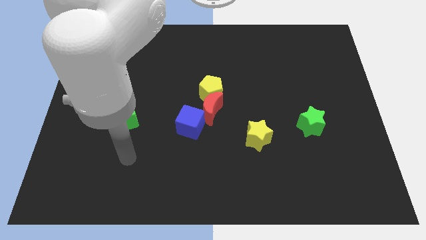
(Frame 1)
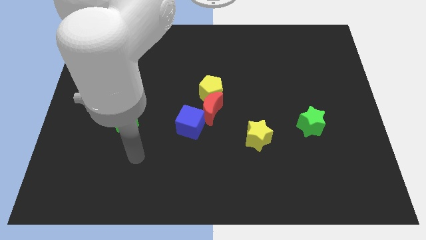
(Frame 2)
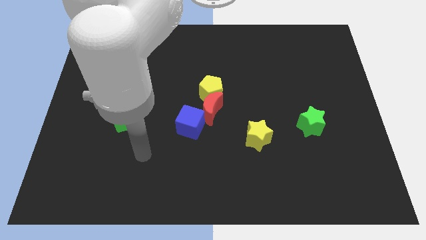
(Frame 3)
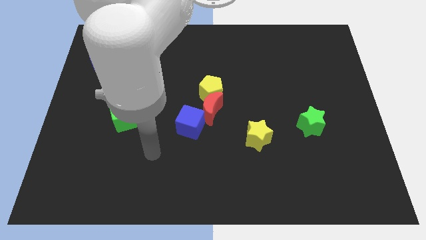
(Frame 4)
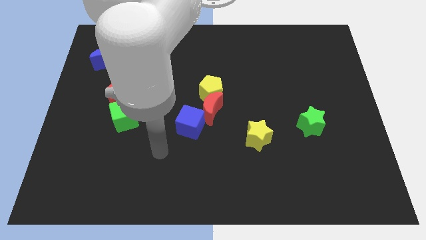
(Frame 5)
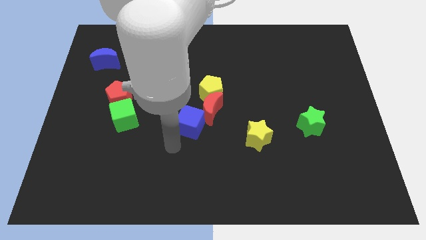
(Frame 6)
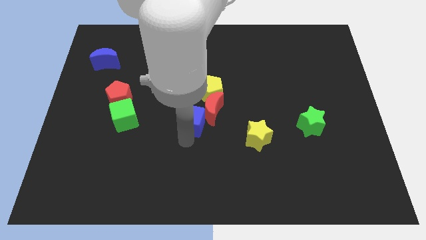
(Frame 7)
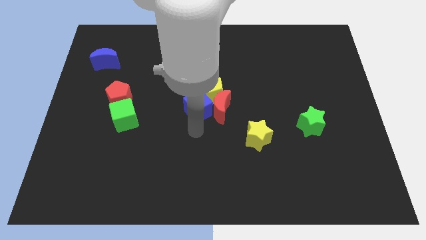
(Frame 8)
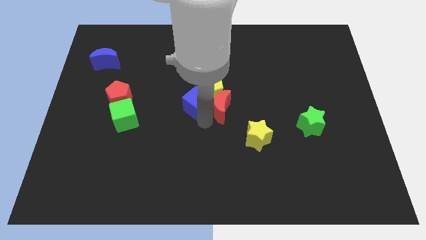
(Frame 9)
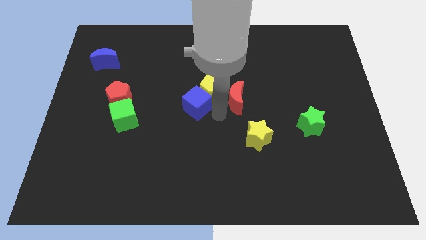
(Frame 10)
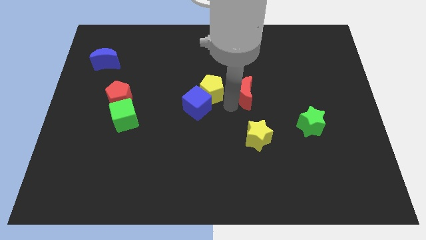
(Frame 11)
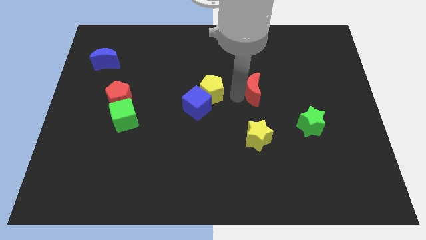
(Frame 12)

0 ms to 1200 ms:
separate the yellow pentagon from the red moon

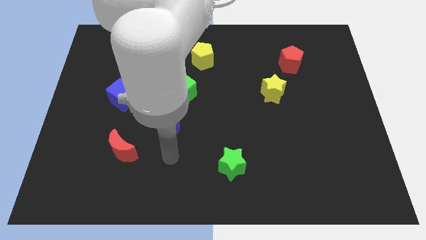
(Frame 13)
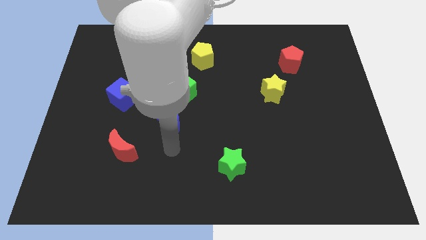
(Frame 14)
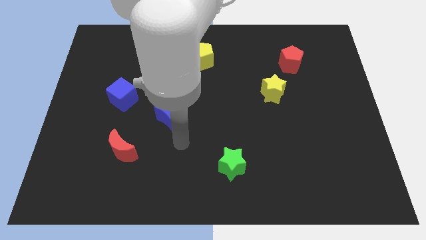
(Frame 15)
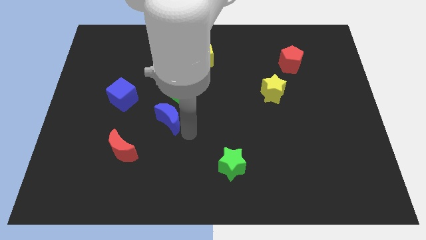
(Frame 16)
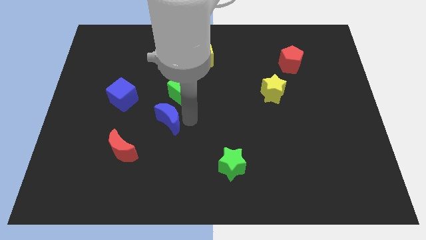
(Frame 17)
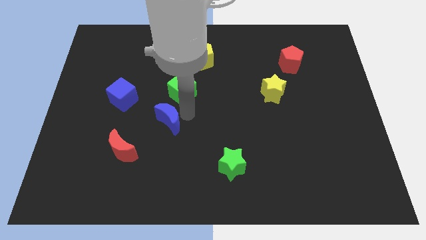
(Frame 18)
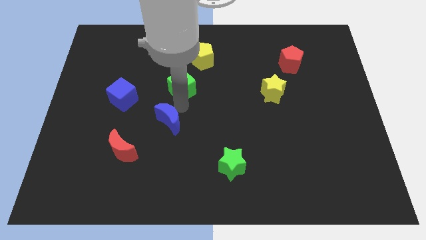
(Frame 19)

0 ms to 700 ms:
move the blue moon away from the green cube

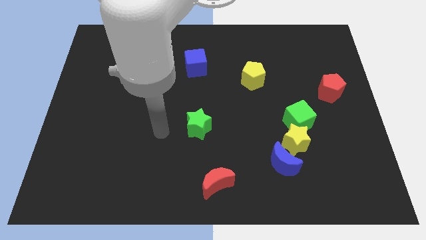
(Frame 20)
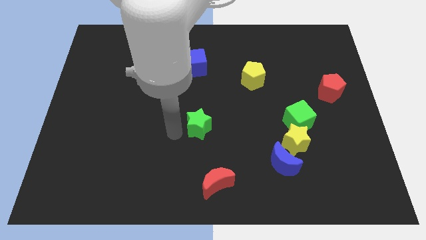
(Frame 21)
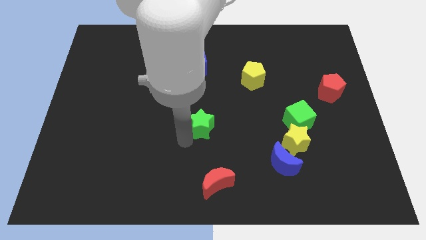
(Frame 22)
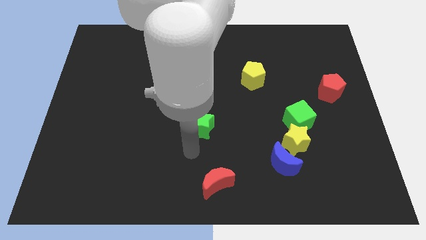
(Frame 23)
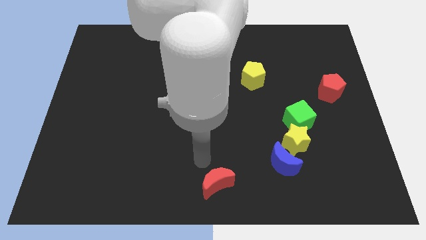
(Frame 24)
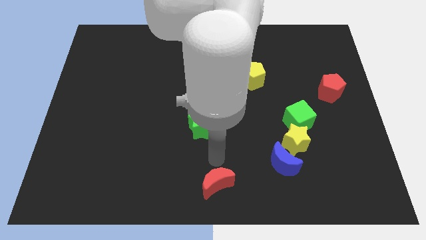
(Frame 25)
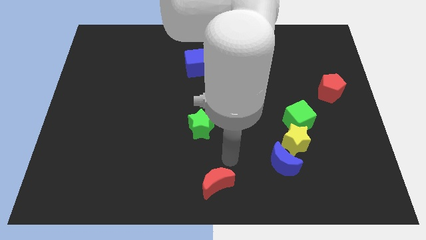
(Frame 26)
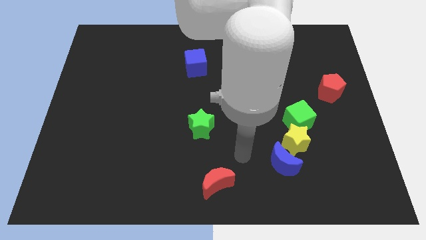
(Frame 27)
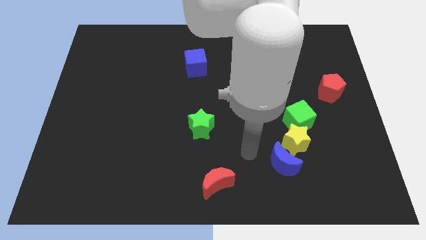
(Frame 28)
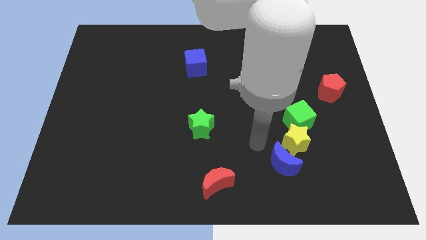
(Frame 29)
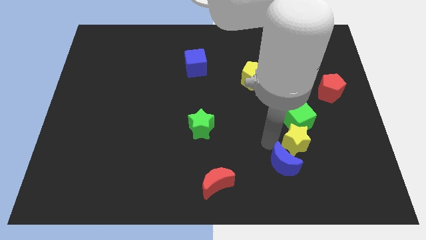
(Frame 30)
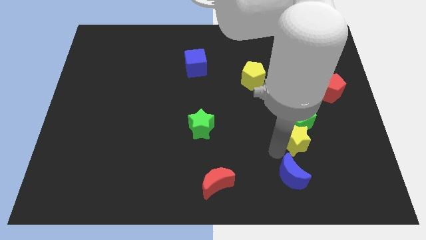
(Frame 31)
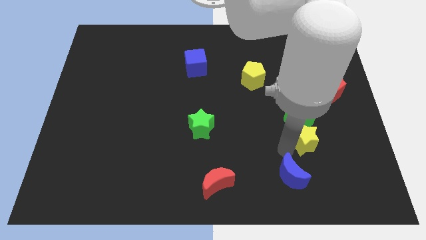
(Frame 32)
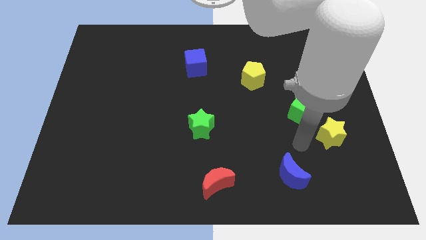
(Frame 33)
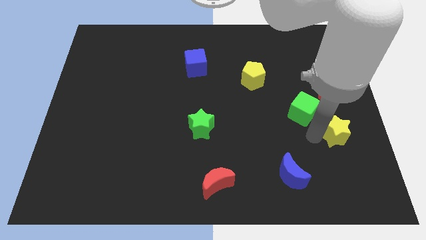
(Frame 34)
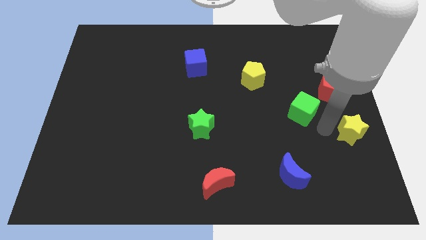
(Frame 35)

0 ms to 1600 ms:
move the green cube away from the yellow star

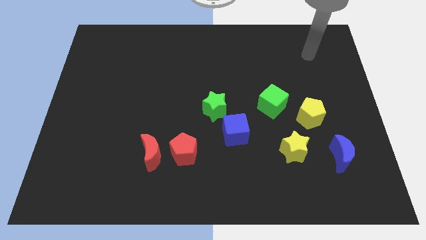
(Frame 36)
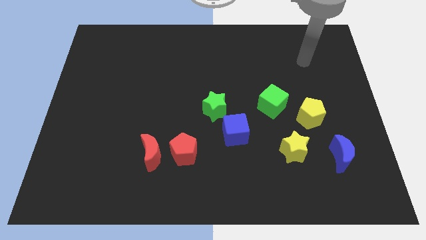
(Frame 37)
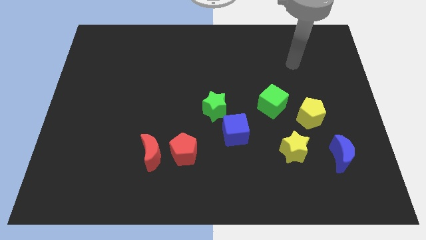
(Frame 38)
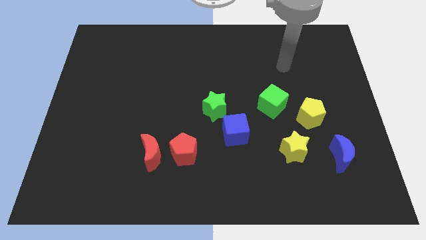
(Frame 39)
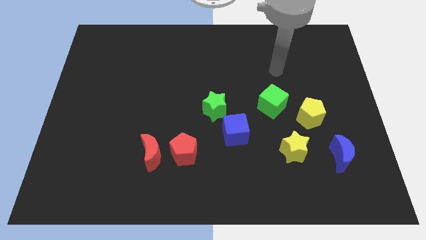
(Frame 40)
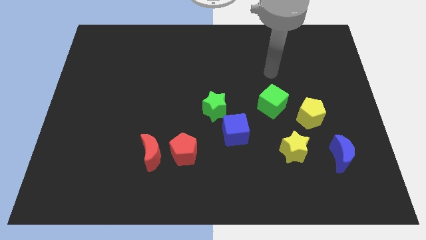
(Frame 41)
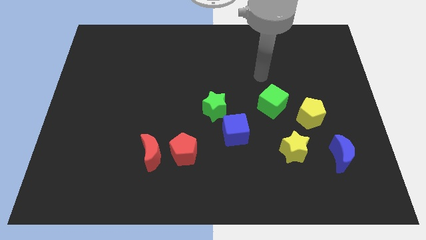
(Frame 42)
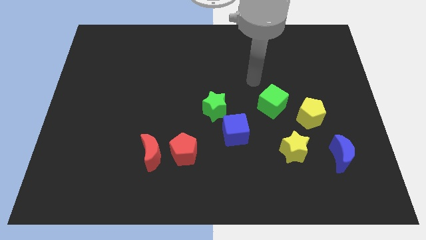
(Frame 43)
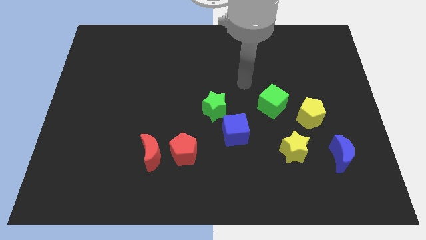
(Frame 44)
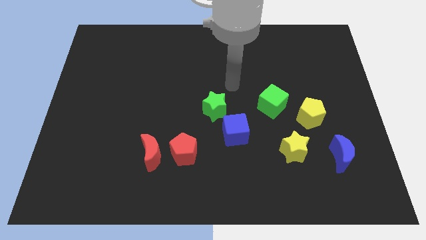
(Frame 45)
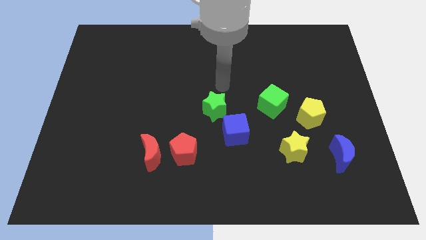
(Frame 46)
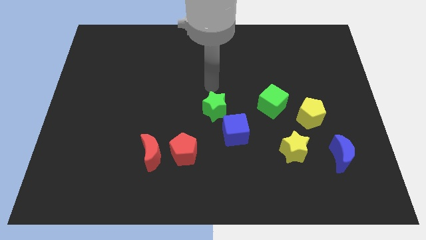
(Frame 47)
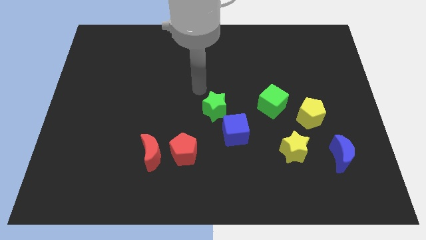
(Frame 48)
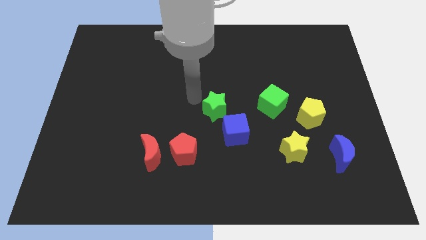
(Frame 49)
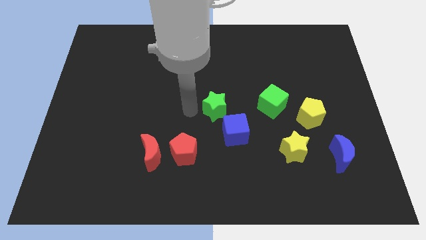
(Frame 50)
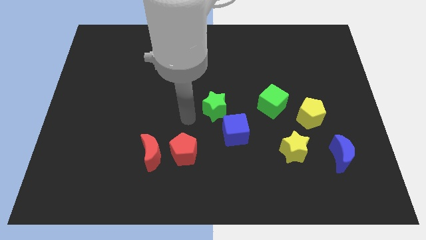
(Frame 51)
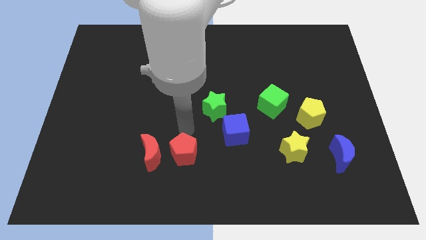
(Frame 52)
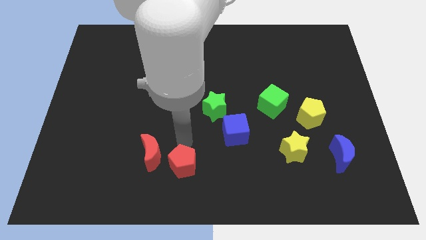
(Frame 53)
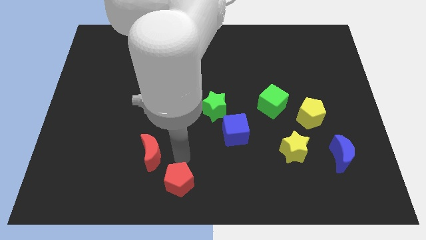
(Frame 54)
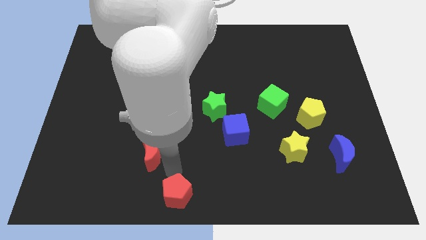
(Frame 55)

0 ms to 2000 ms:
move the red moon away from the red pentagon

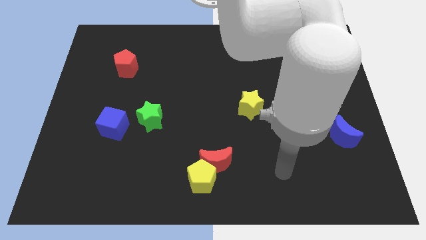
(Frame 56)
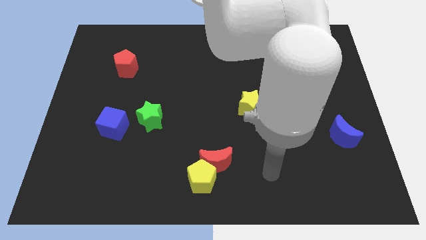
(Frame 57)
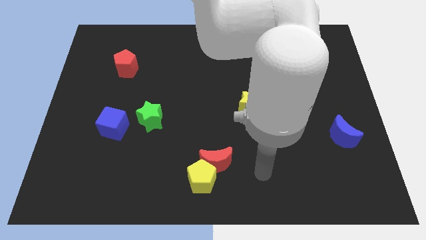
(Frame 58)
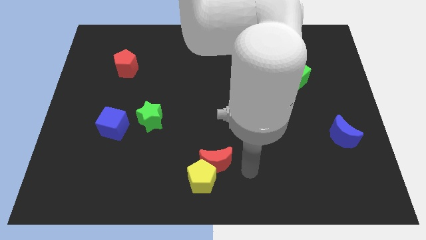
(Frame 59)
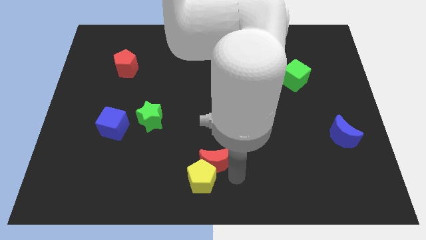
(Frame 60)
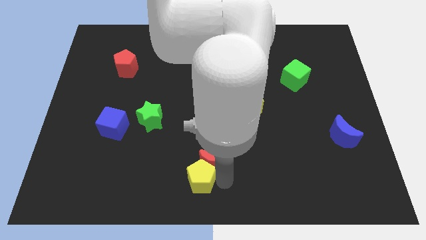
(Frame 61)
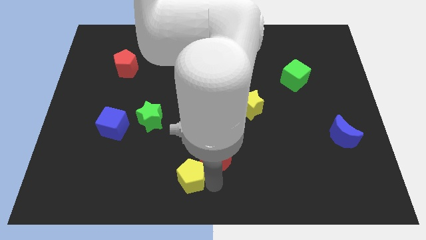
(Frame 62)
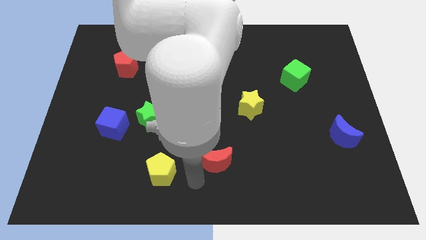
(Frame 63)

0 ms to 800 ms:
pull the red moon apart from the yellow pentagon

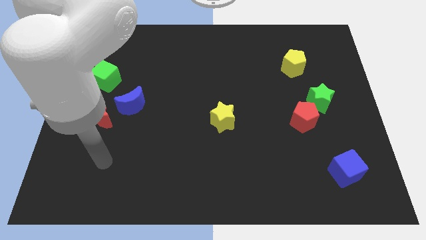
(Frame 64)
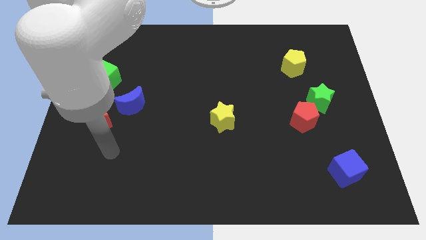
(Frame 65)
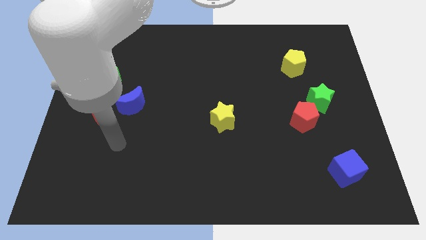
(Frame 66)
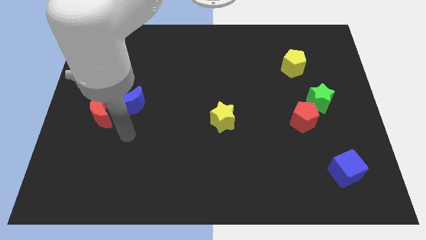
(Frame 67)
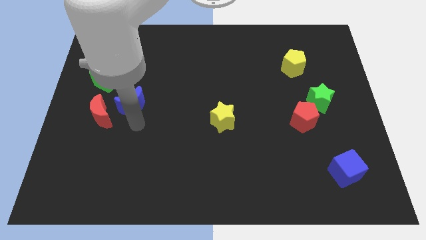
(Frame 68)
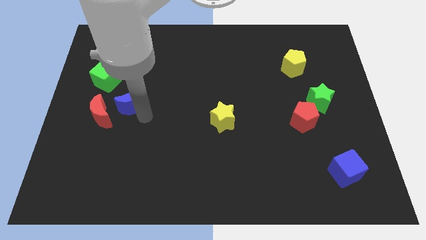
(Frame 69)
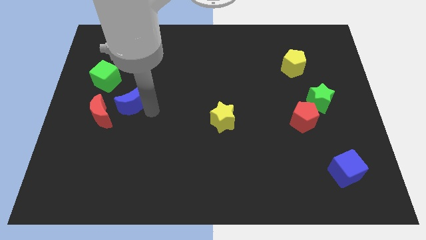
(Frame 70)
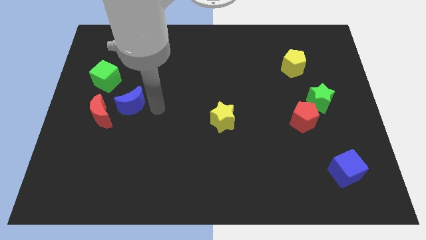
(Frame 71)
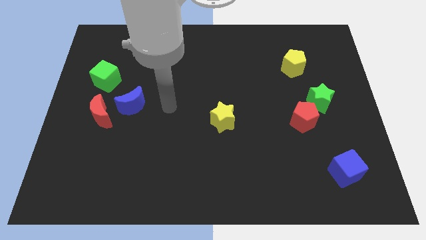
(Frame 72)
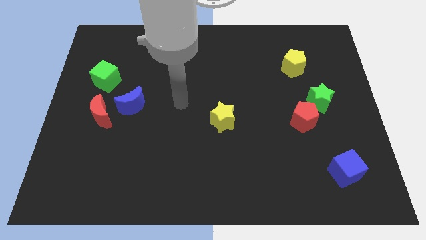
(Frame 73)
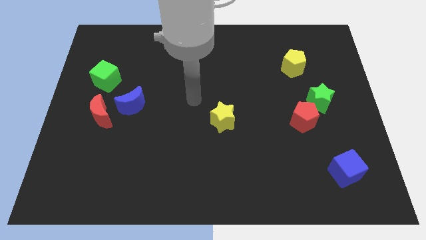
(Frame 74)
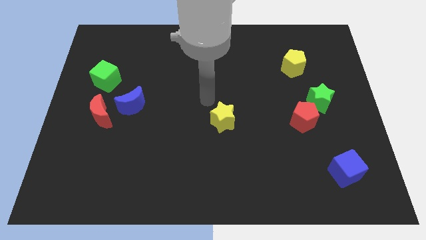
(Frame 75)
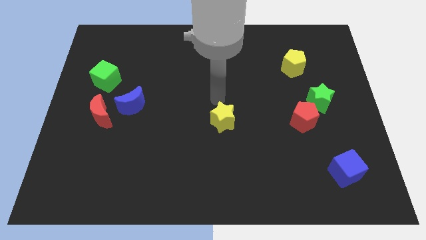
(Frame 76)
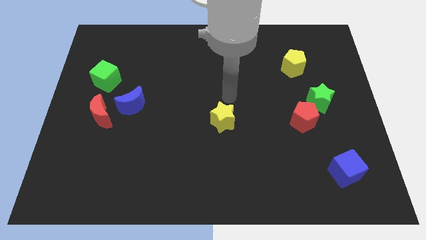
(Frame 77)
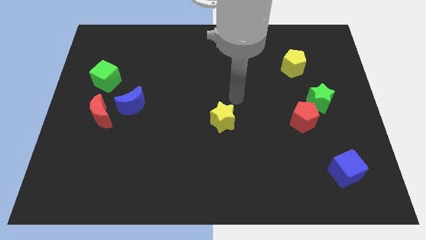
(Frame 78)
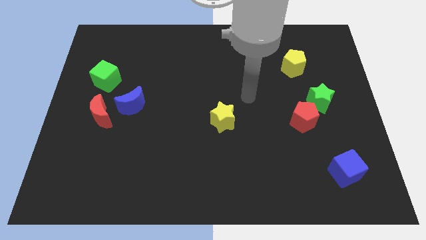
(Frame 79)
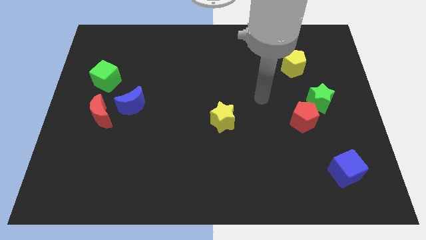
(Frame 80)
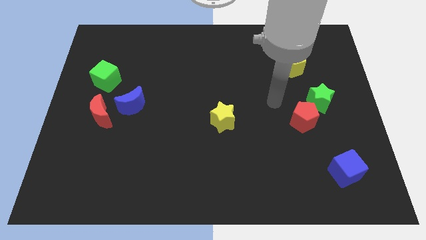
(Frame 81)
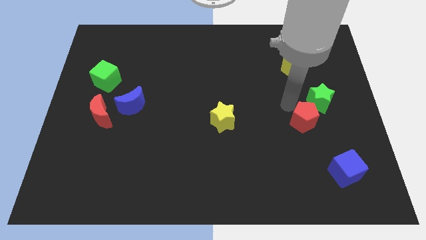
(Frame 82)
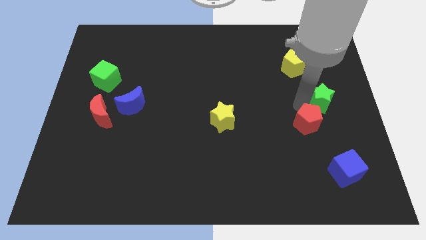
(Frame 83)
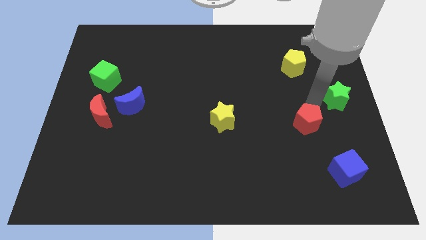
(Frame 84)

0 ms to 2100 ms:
move the red pentagon away from the green star

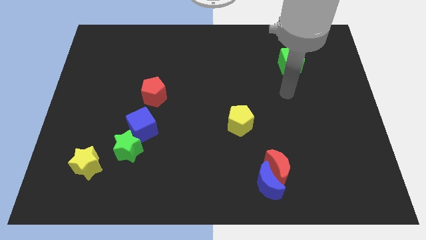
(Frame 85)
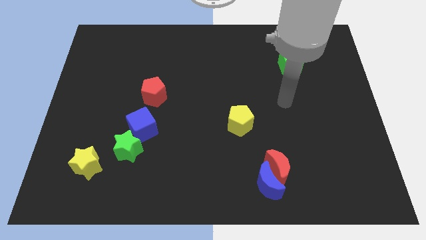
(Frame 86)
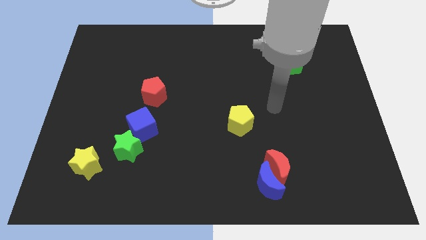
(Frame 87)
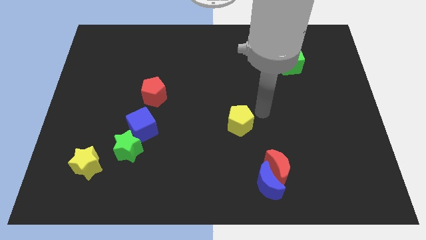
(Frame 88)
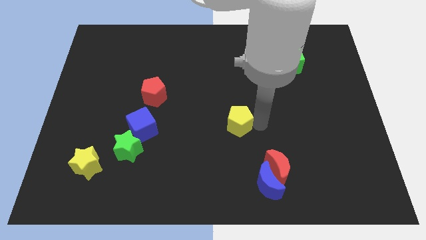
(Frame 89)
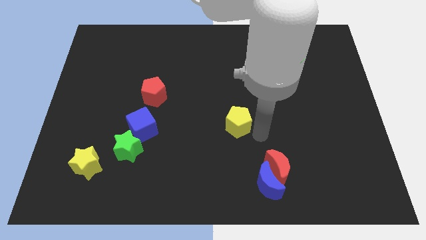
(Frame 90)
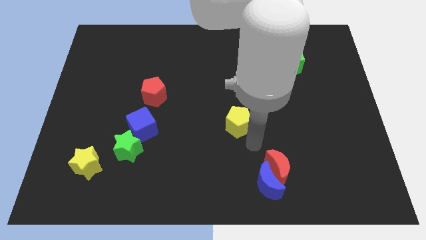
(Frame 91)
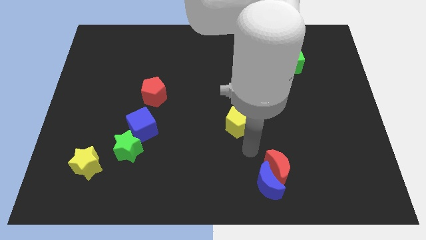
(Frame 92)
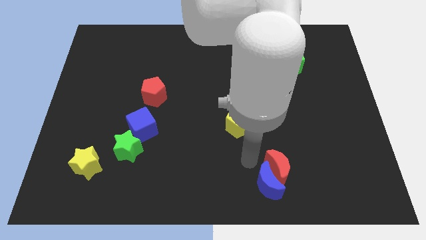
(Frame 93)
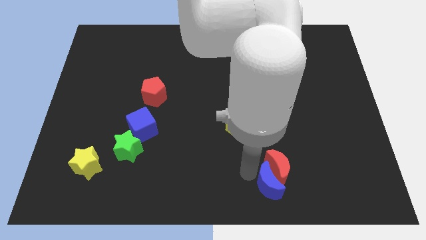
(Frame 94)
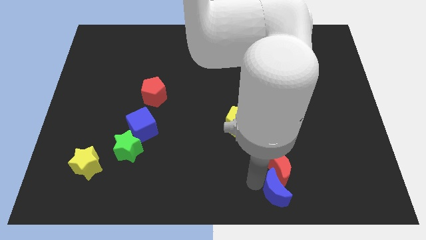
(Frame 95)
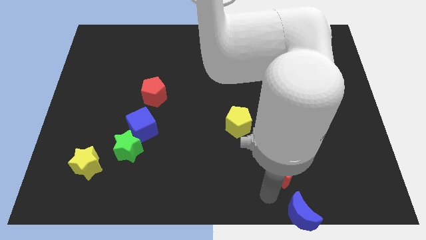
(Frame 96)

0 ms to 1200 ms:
separate the red moon from the blue moon
